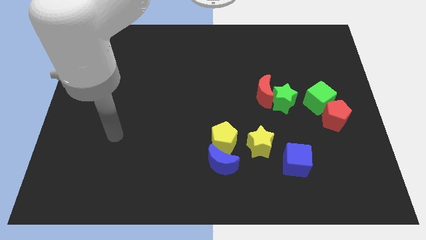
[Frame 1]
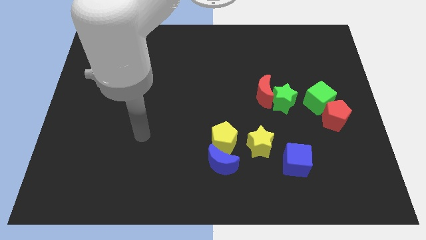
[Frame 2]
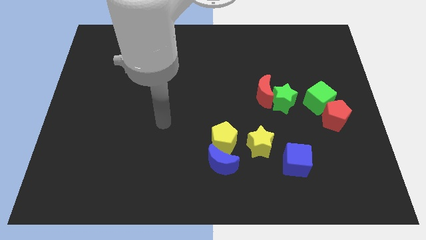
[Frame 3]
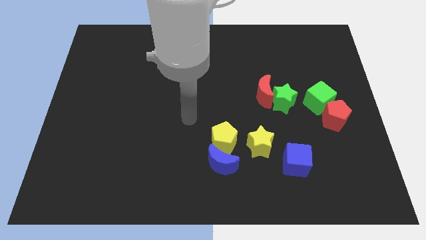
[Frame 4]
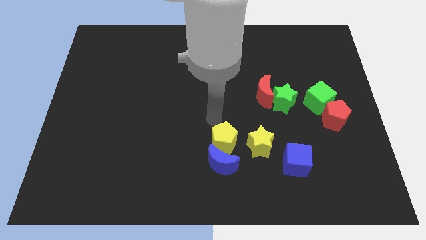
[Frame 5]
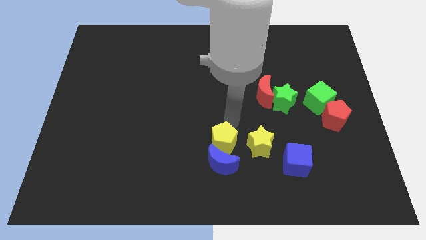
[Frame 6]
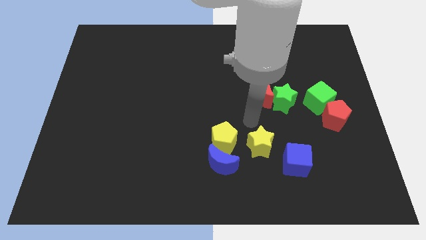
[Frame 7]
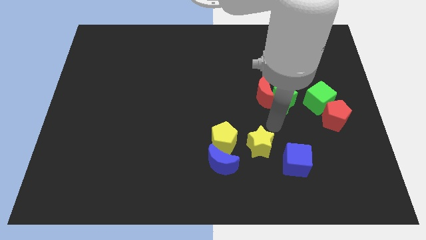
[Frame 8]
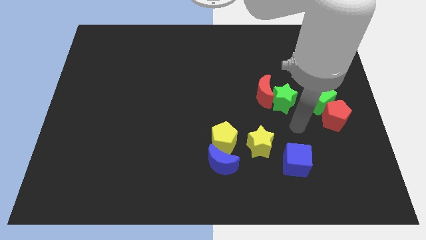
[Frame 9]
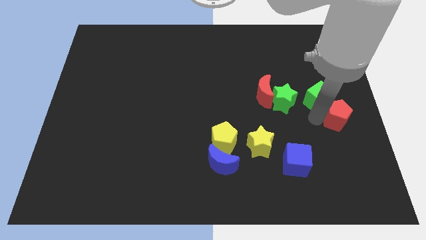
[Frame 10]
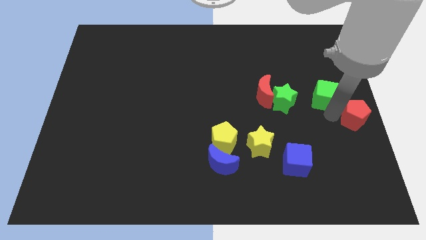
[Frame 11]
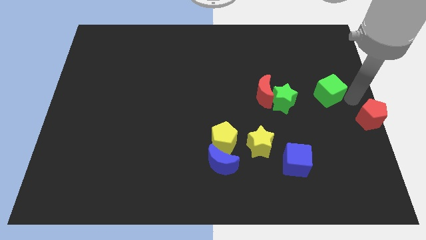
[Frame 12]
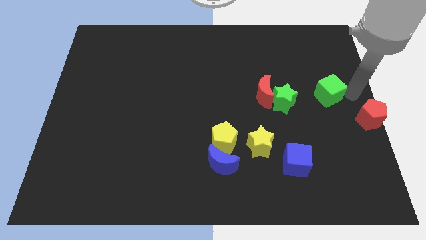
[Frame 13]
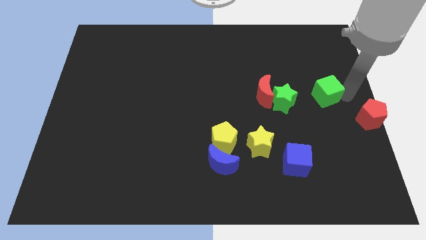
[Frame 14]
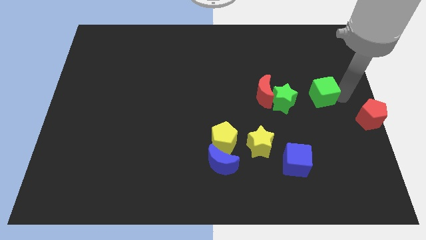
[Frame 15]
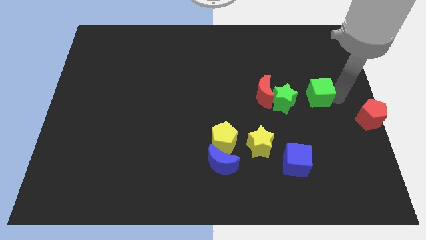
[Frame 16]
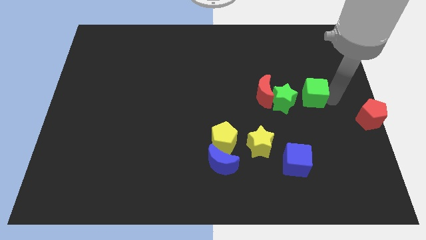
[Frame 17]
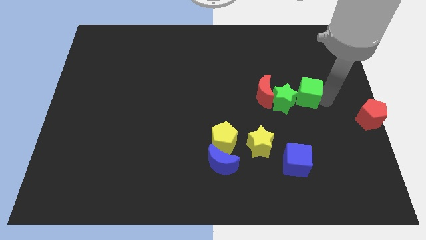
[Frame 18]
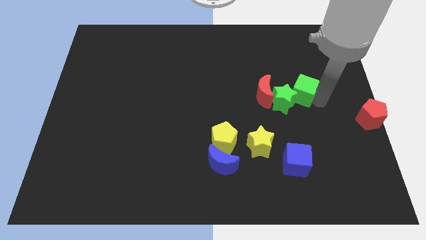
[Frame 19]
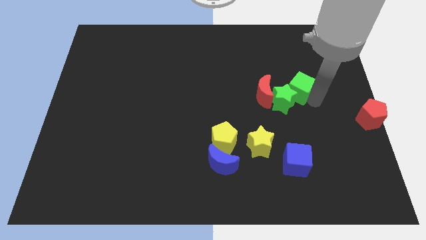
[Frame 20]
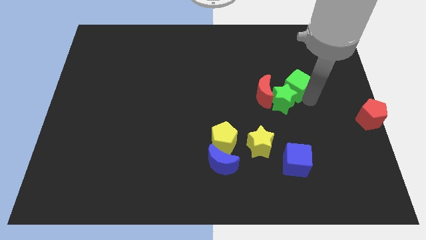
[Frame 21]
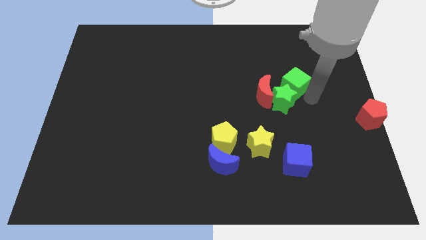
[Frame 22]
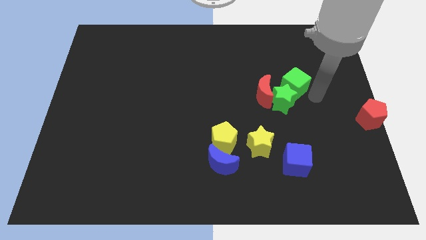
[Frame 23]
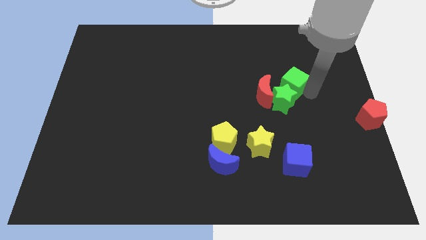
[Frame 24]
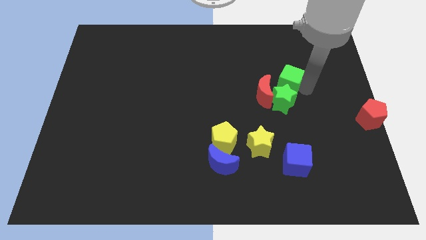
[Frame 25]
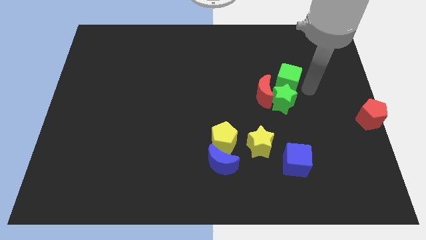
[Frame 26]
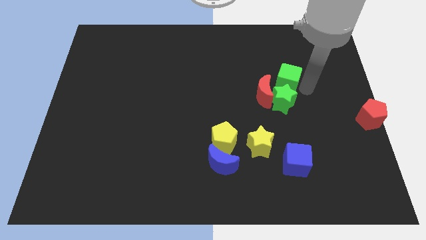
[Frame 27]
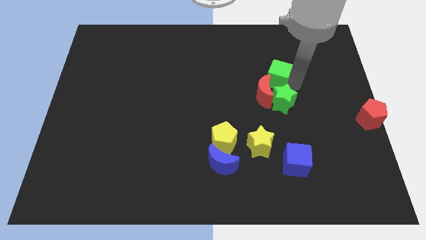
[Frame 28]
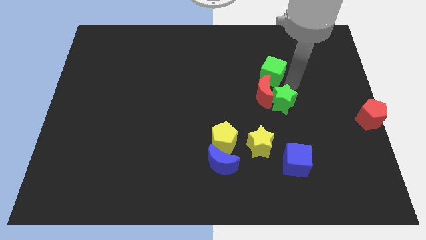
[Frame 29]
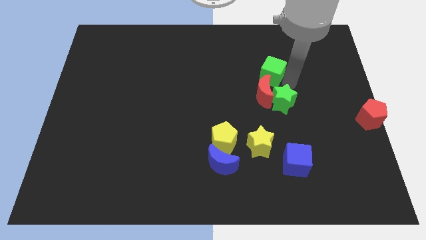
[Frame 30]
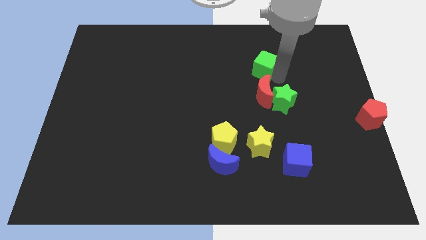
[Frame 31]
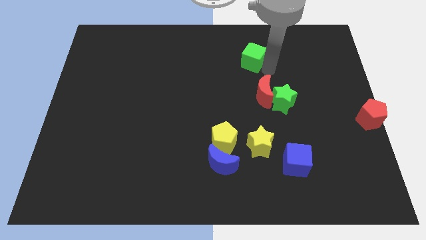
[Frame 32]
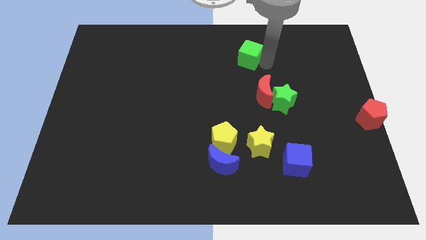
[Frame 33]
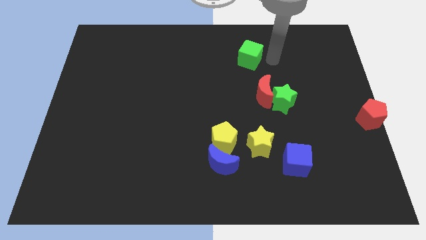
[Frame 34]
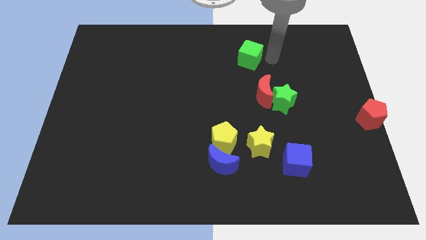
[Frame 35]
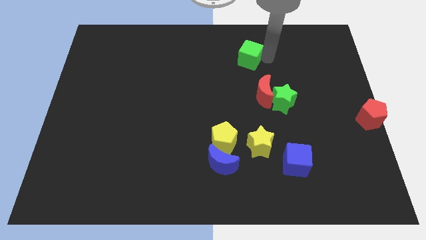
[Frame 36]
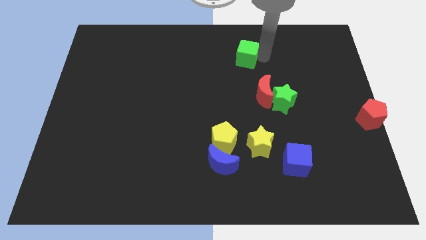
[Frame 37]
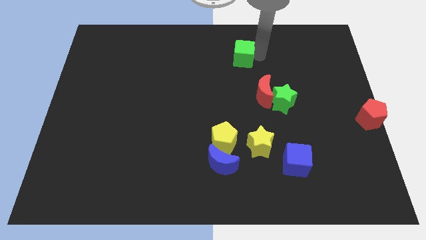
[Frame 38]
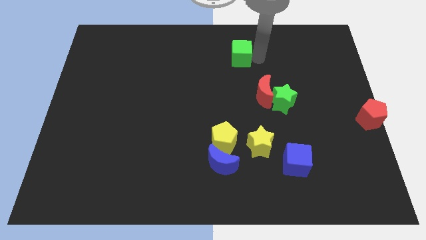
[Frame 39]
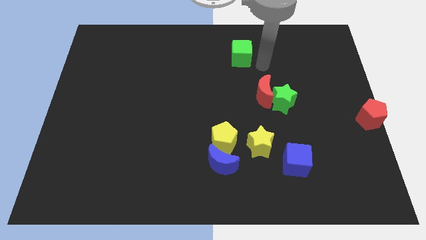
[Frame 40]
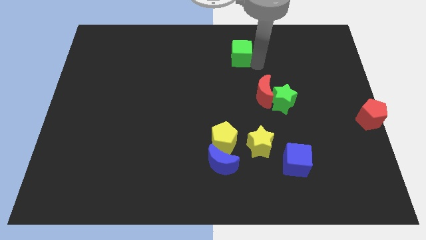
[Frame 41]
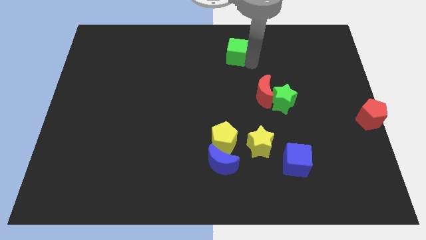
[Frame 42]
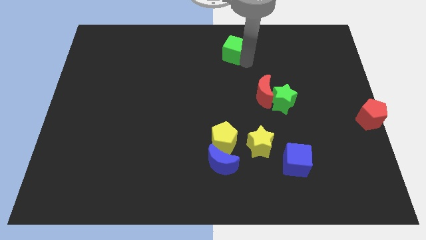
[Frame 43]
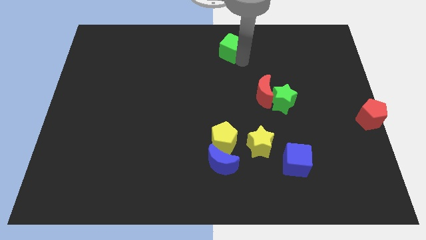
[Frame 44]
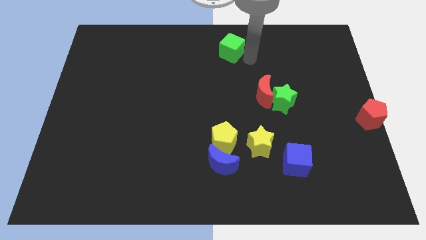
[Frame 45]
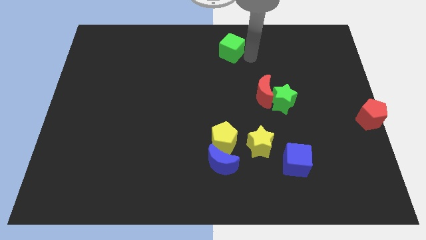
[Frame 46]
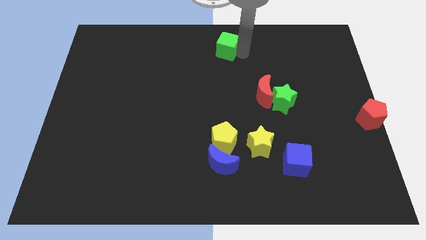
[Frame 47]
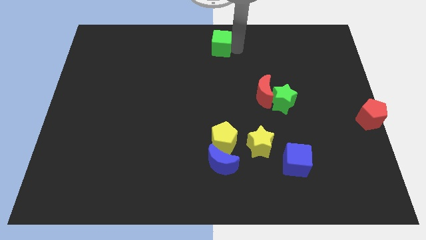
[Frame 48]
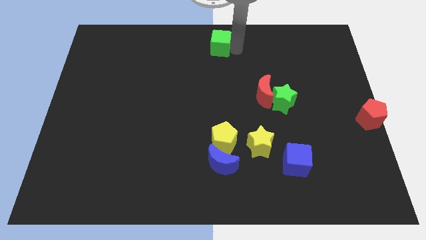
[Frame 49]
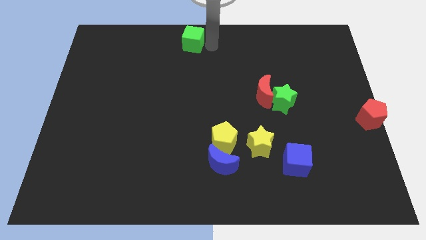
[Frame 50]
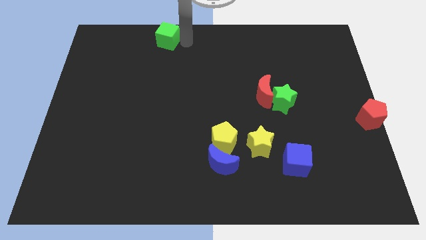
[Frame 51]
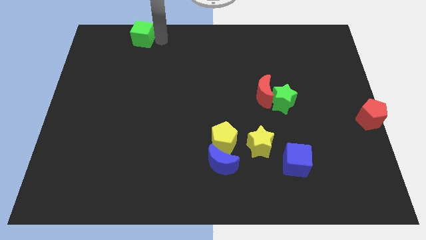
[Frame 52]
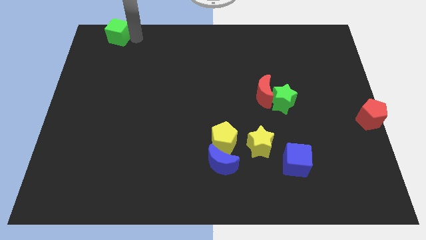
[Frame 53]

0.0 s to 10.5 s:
slide the green cube to the top left of the board

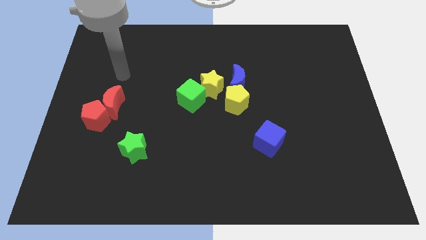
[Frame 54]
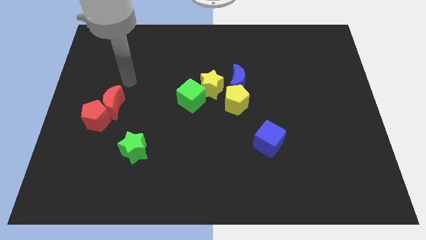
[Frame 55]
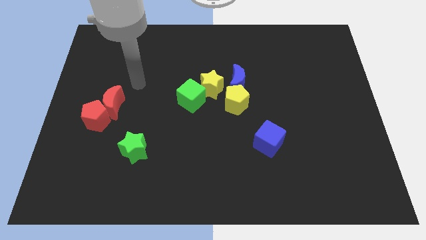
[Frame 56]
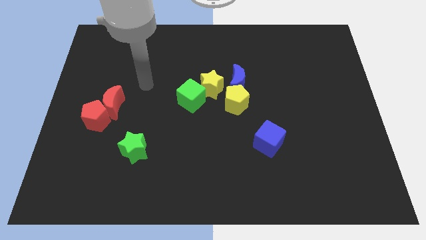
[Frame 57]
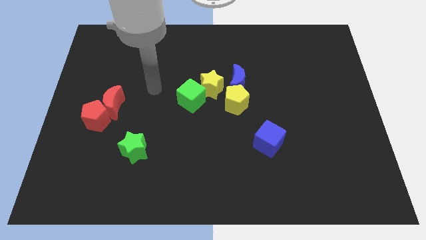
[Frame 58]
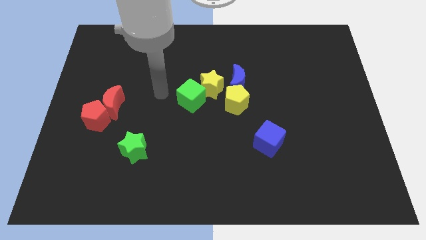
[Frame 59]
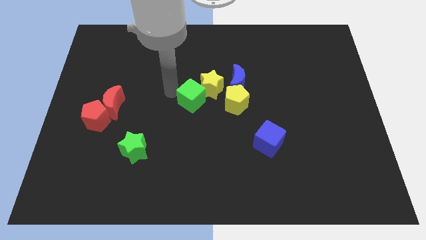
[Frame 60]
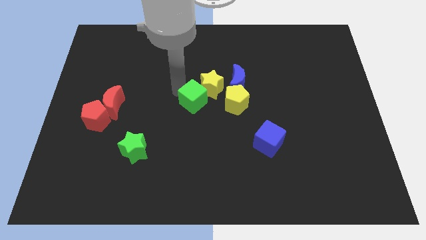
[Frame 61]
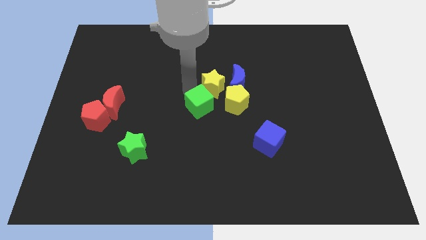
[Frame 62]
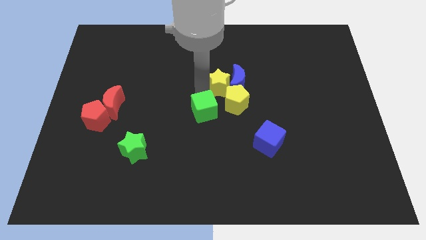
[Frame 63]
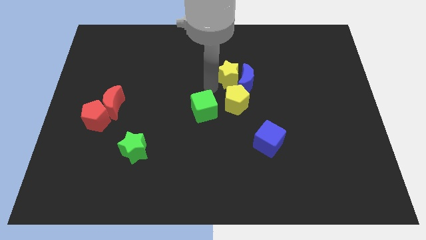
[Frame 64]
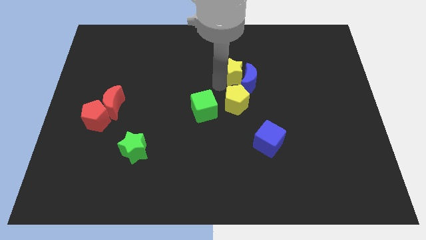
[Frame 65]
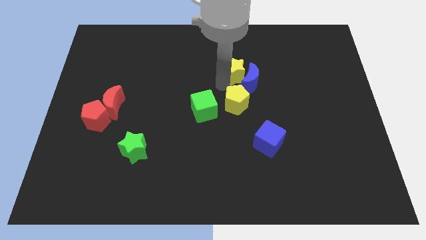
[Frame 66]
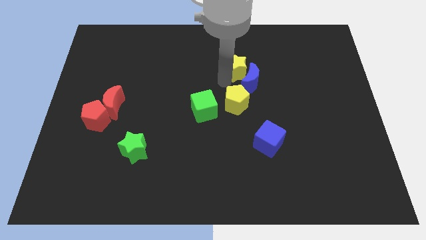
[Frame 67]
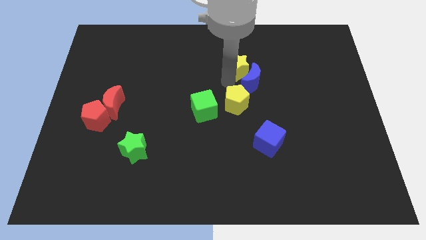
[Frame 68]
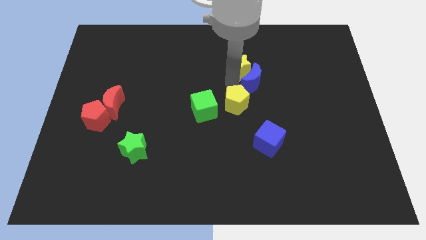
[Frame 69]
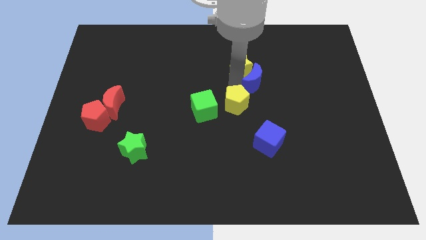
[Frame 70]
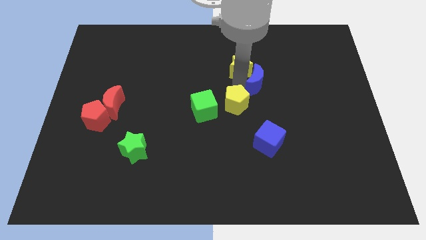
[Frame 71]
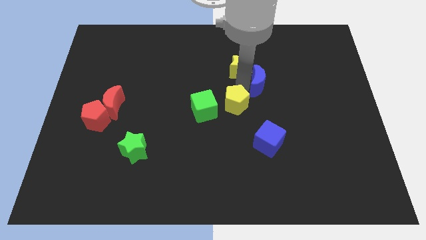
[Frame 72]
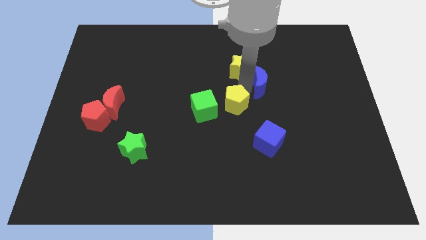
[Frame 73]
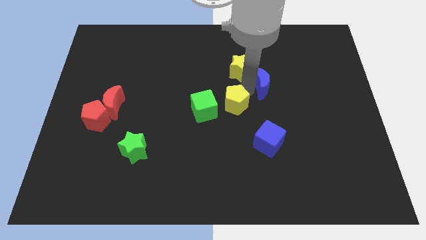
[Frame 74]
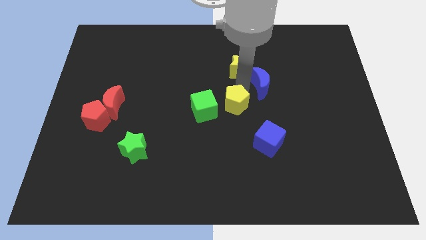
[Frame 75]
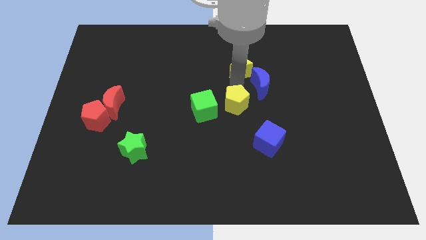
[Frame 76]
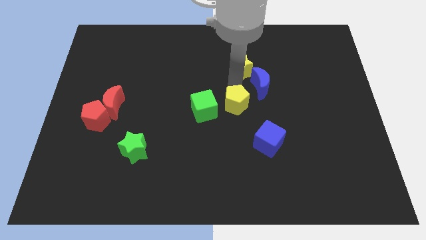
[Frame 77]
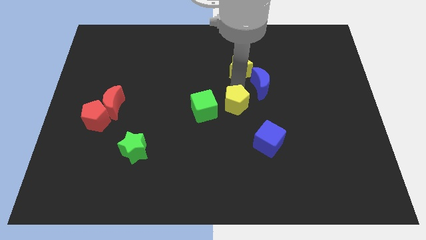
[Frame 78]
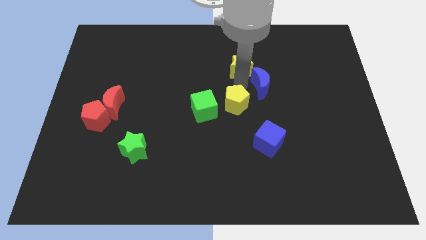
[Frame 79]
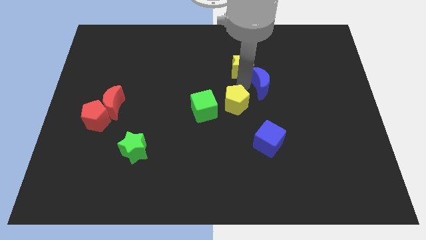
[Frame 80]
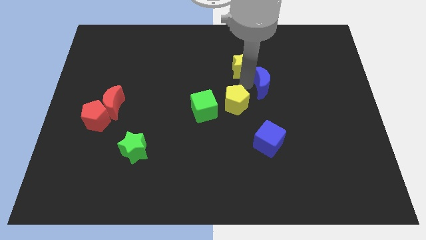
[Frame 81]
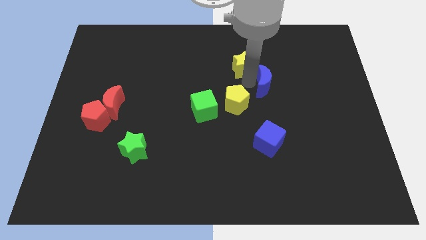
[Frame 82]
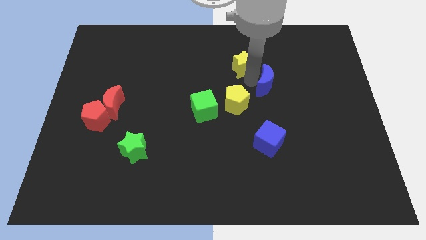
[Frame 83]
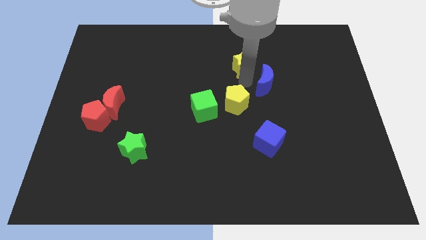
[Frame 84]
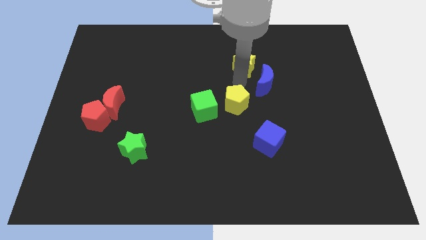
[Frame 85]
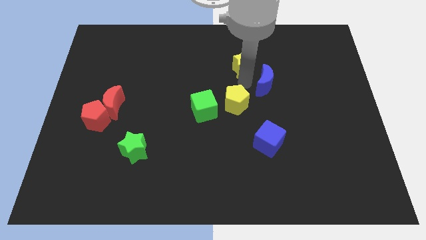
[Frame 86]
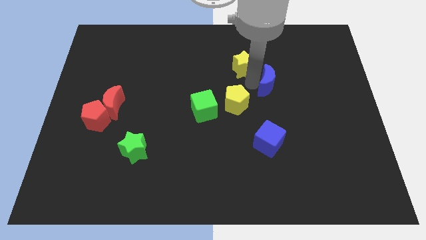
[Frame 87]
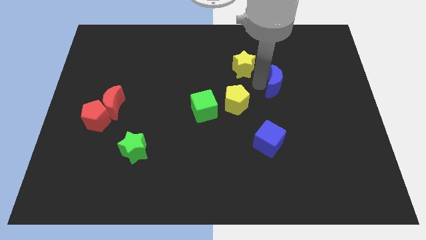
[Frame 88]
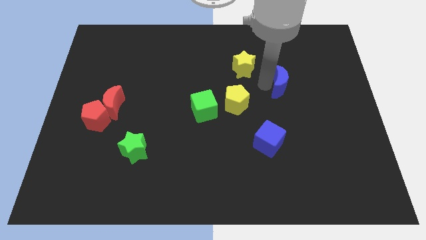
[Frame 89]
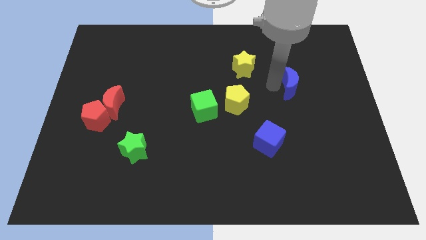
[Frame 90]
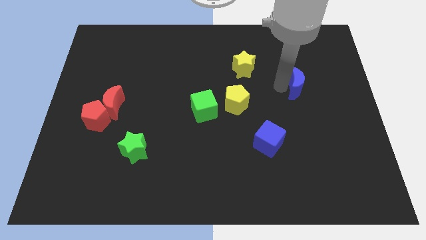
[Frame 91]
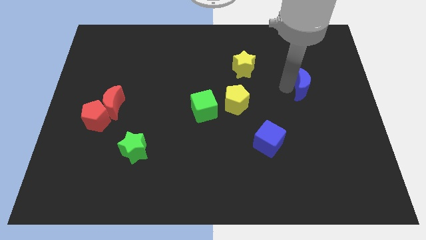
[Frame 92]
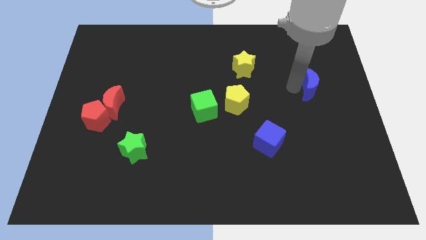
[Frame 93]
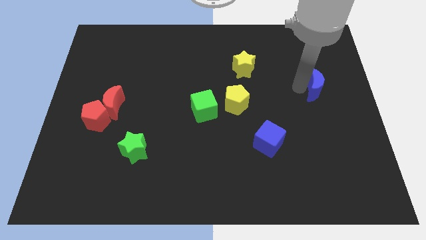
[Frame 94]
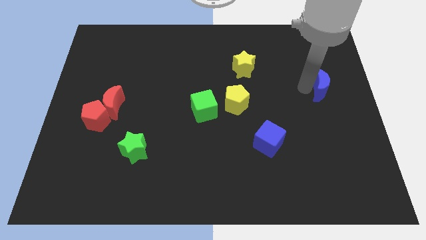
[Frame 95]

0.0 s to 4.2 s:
slide the blue moon to the right side
